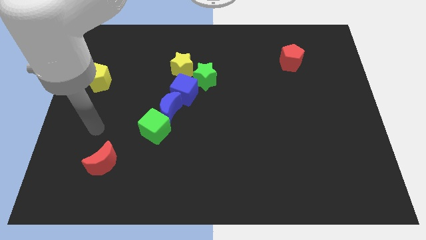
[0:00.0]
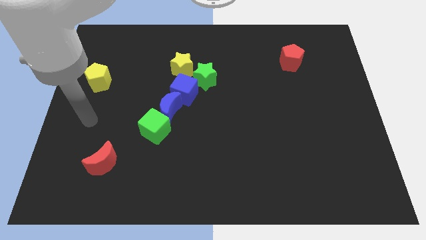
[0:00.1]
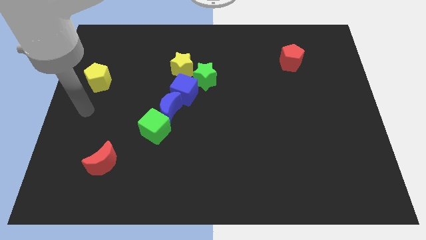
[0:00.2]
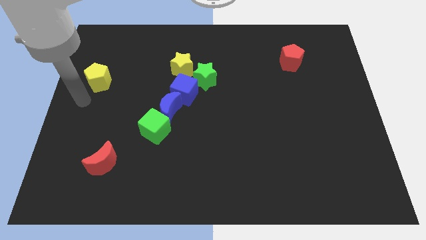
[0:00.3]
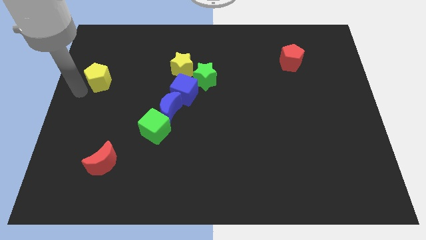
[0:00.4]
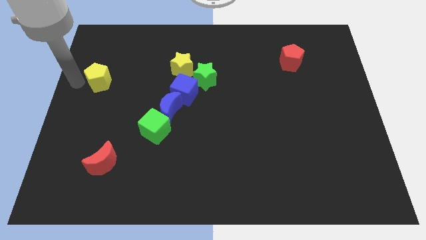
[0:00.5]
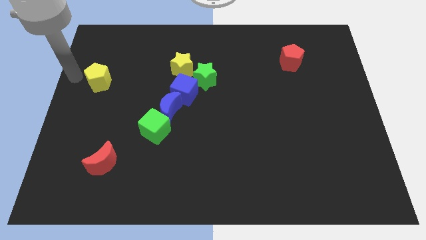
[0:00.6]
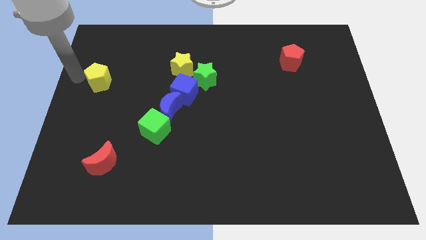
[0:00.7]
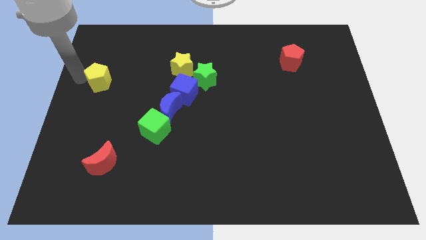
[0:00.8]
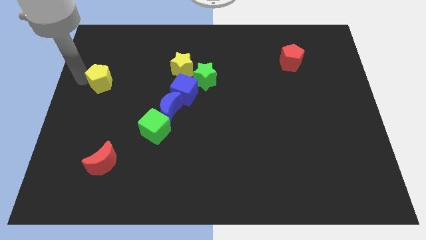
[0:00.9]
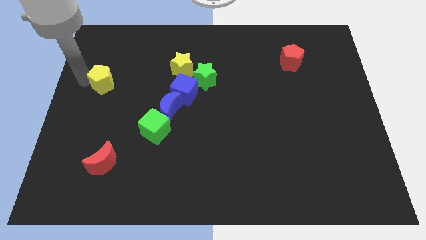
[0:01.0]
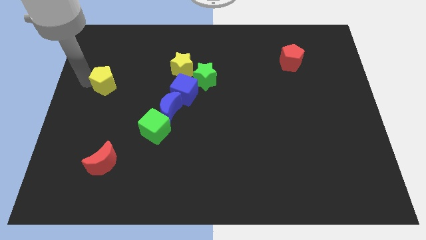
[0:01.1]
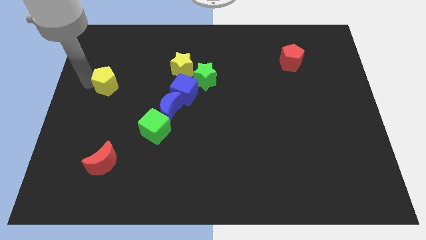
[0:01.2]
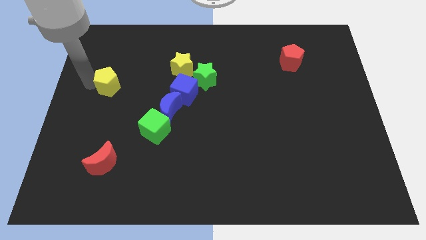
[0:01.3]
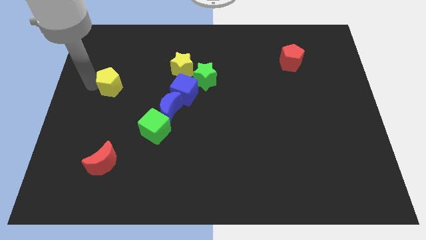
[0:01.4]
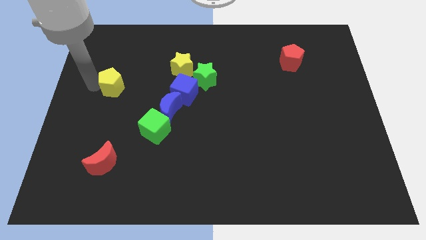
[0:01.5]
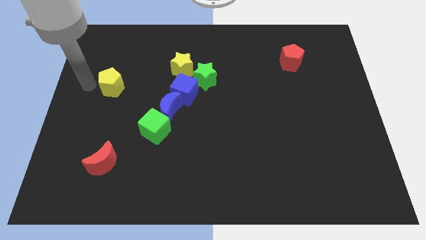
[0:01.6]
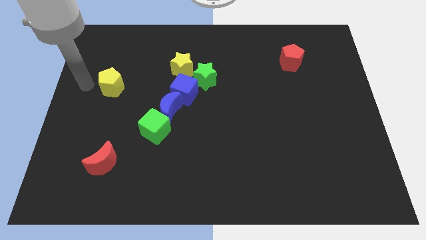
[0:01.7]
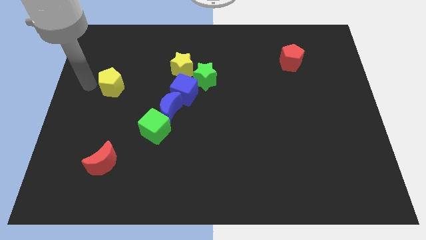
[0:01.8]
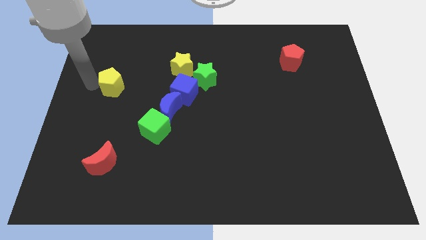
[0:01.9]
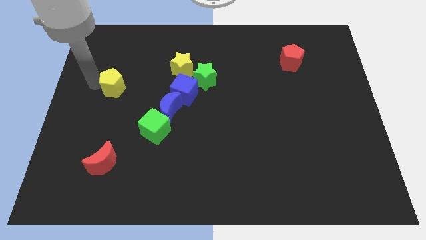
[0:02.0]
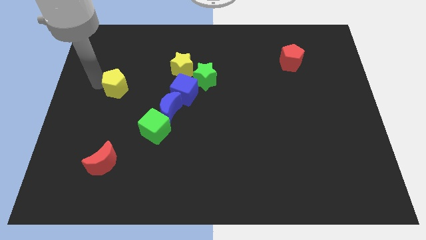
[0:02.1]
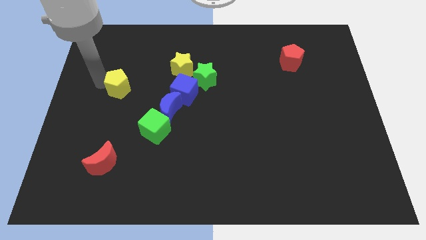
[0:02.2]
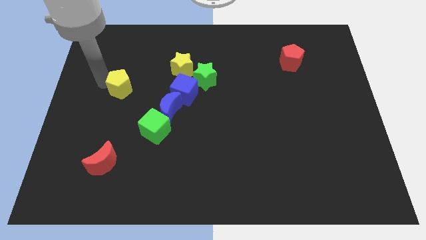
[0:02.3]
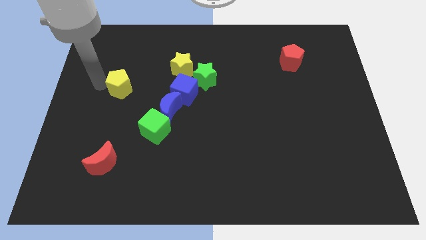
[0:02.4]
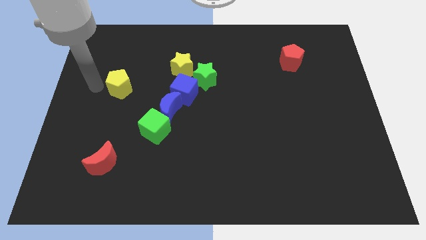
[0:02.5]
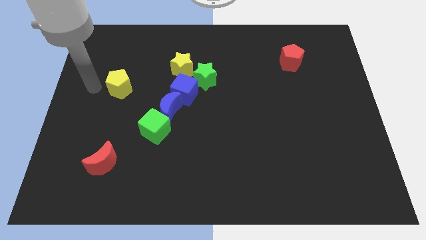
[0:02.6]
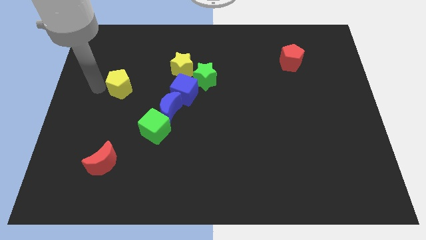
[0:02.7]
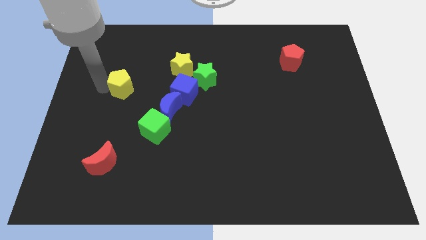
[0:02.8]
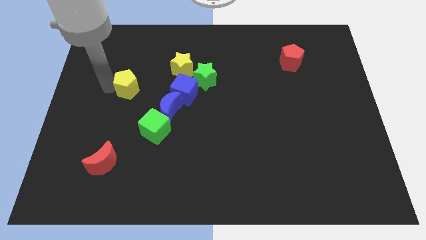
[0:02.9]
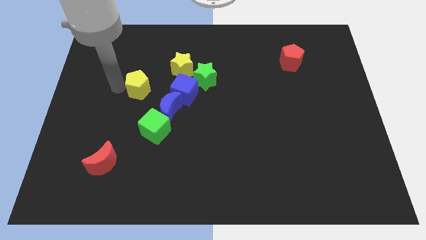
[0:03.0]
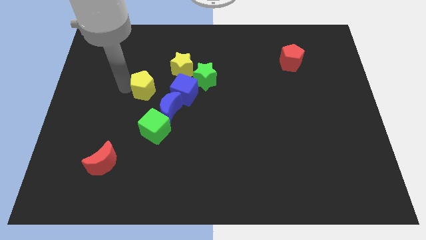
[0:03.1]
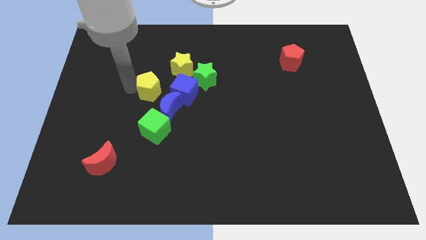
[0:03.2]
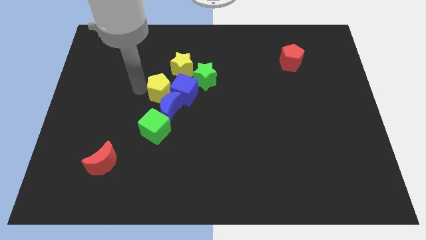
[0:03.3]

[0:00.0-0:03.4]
slide the yellow pentagon close to the blue cube

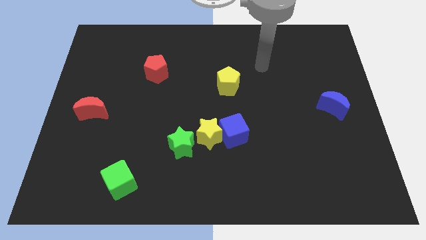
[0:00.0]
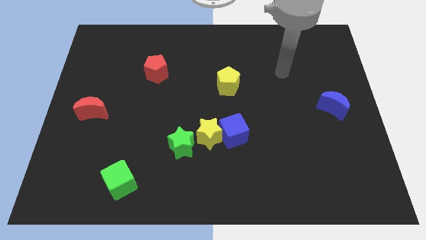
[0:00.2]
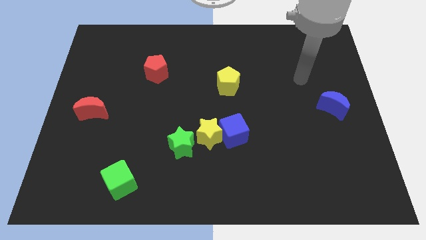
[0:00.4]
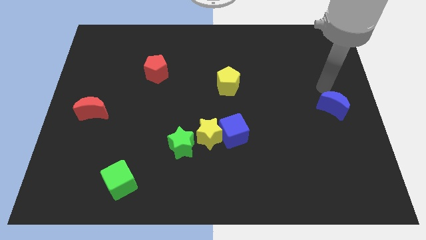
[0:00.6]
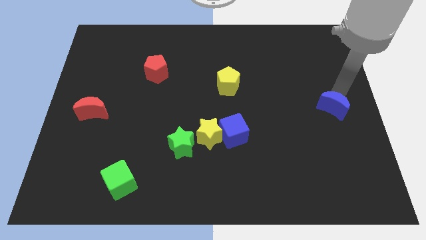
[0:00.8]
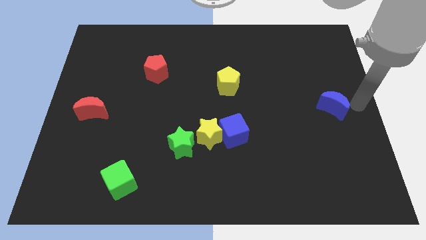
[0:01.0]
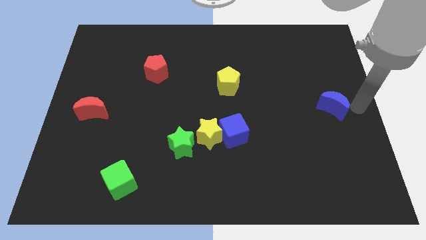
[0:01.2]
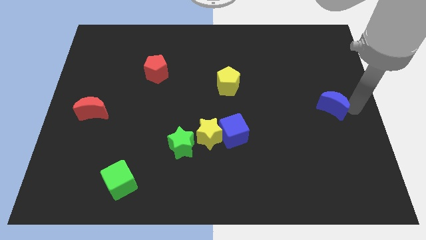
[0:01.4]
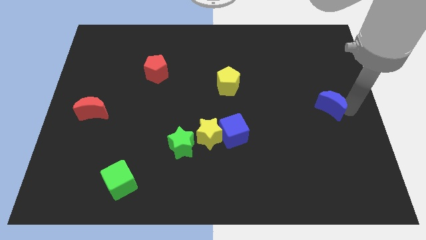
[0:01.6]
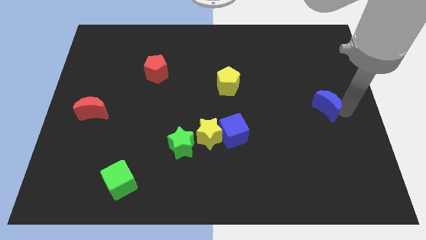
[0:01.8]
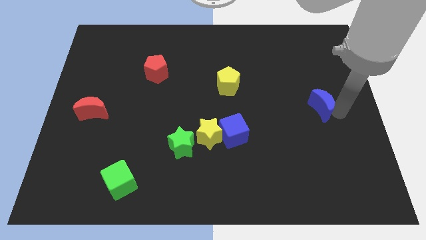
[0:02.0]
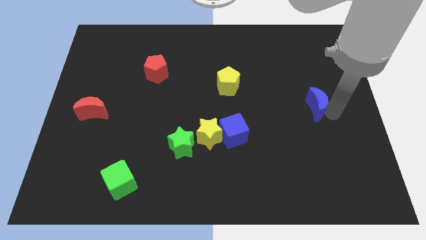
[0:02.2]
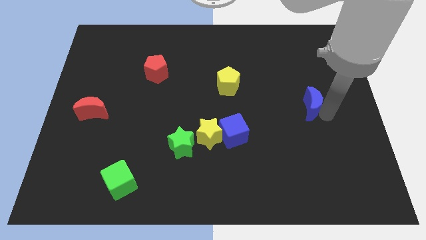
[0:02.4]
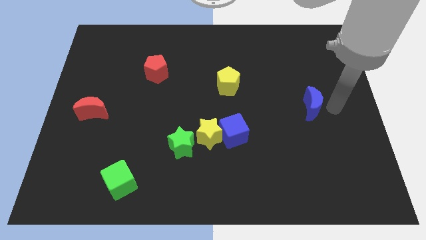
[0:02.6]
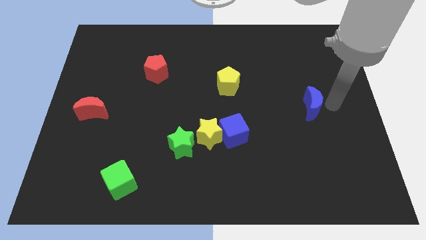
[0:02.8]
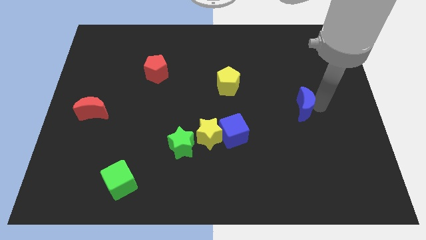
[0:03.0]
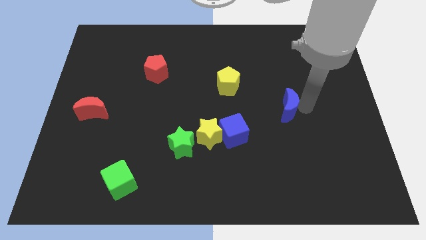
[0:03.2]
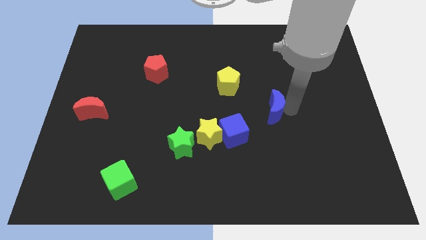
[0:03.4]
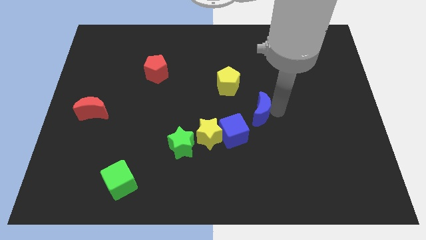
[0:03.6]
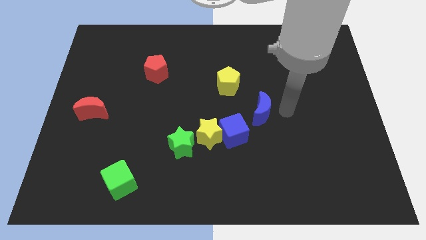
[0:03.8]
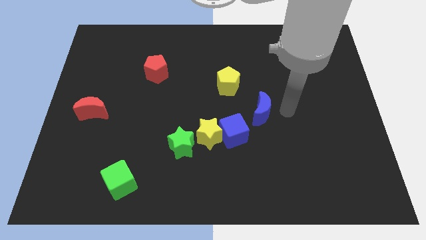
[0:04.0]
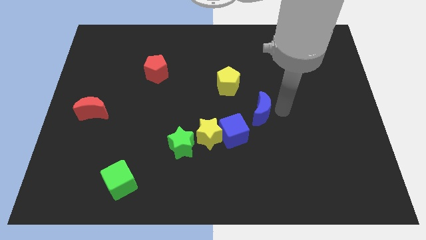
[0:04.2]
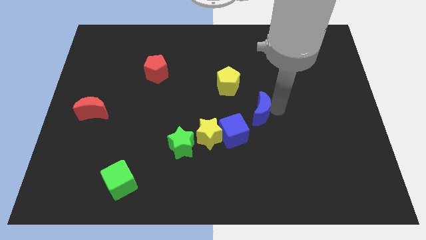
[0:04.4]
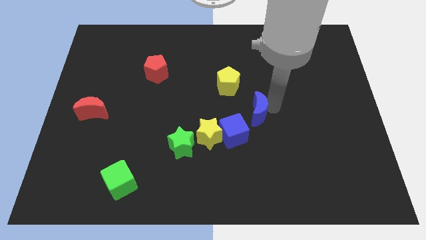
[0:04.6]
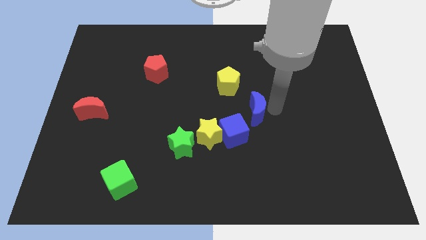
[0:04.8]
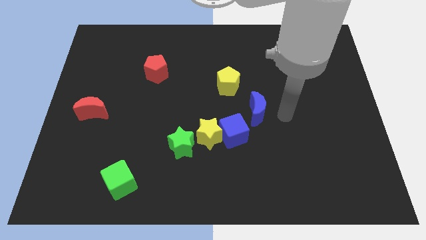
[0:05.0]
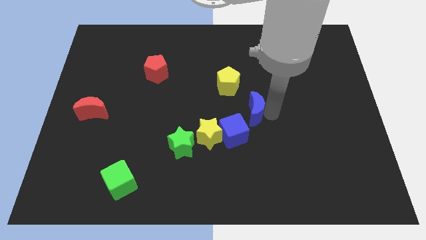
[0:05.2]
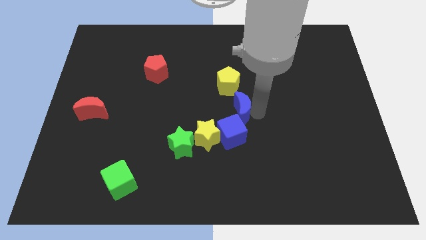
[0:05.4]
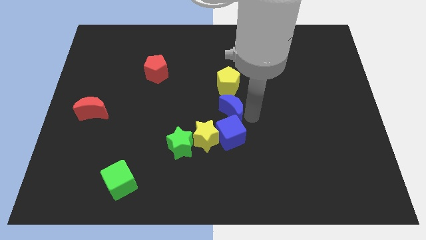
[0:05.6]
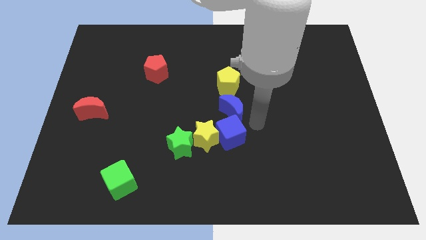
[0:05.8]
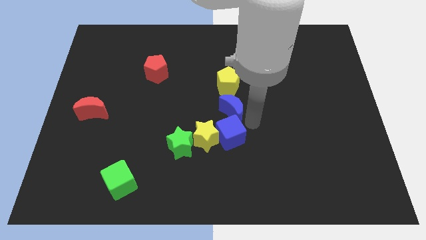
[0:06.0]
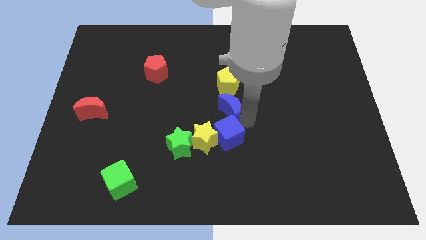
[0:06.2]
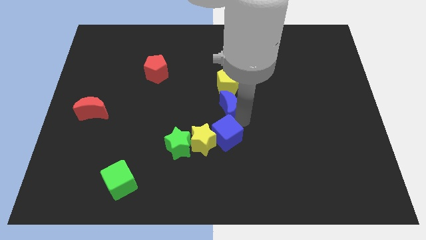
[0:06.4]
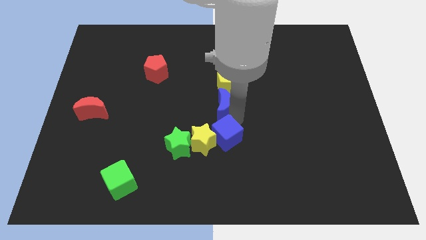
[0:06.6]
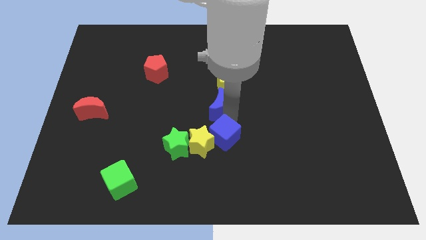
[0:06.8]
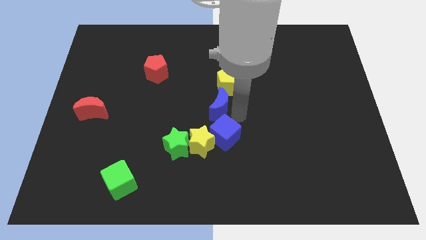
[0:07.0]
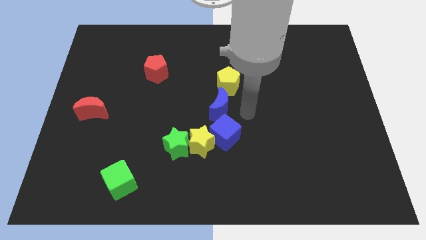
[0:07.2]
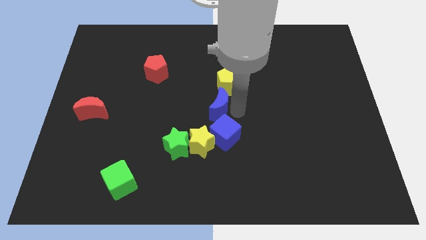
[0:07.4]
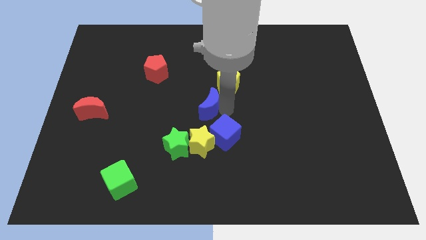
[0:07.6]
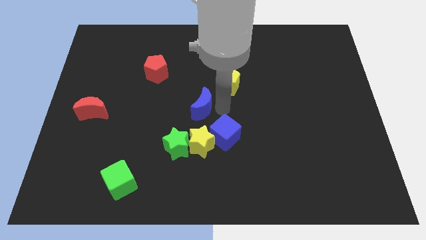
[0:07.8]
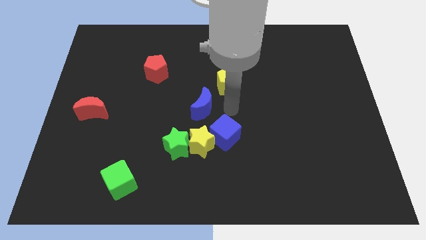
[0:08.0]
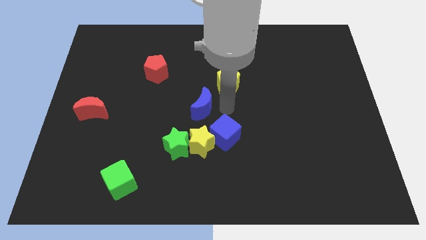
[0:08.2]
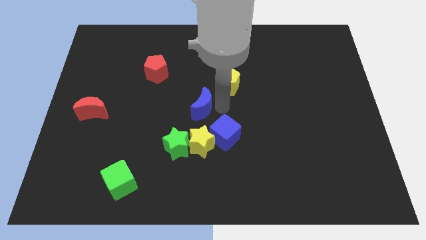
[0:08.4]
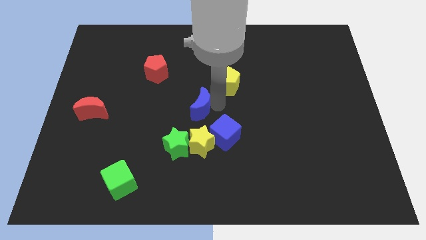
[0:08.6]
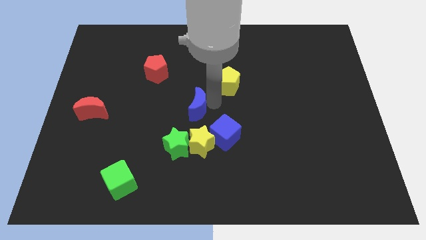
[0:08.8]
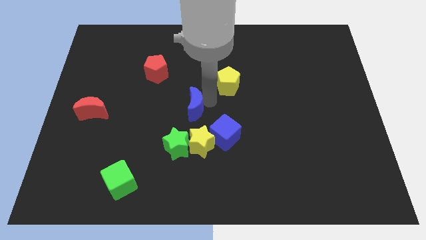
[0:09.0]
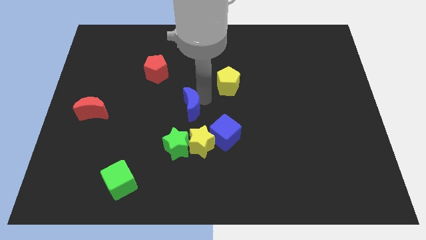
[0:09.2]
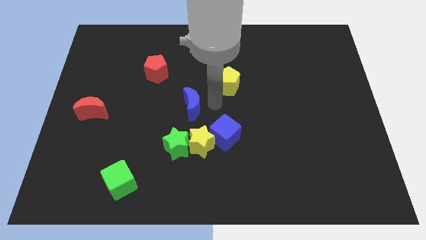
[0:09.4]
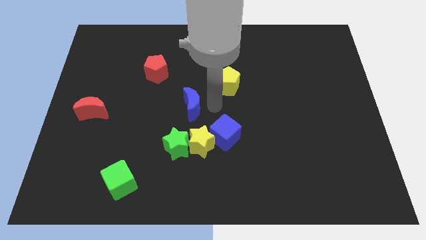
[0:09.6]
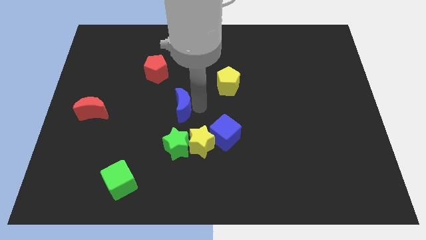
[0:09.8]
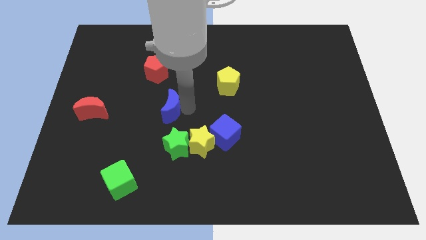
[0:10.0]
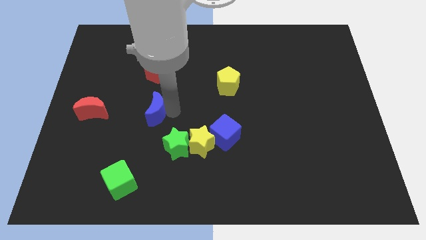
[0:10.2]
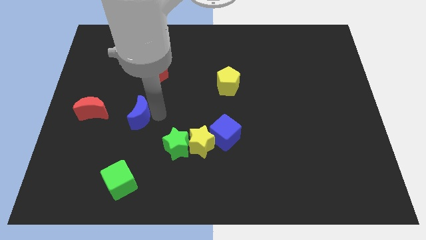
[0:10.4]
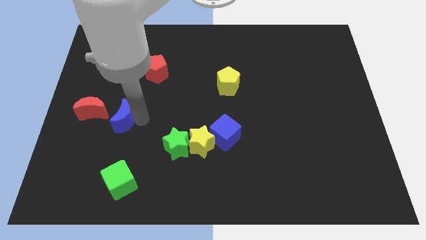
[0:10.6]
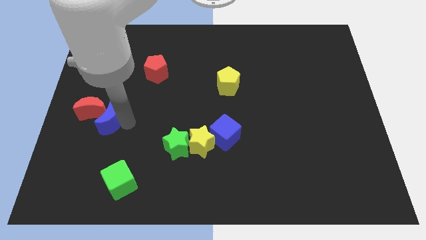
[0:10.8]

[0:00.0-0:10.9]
push the blue moon towards the red moon
